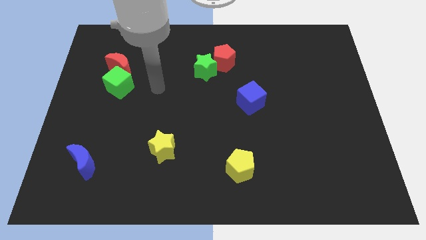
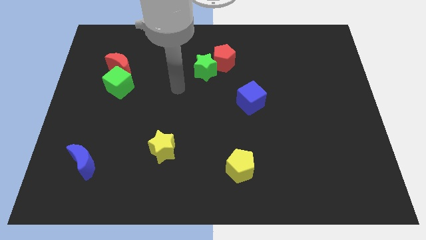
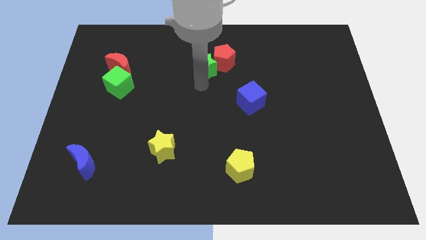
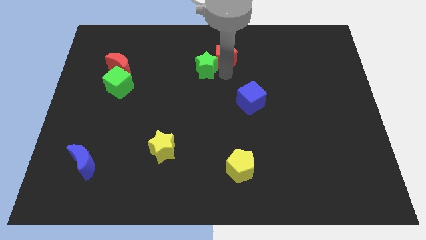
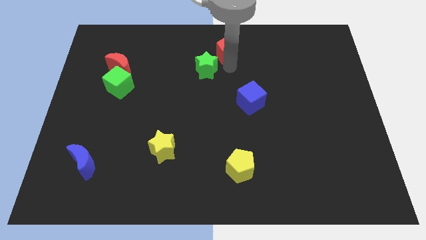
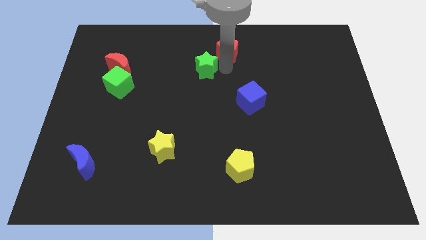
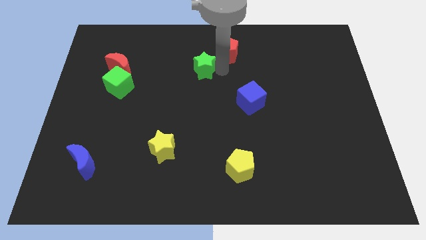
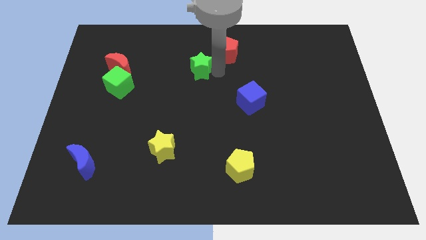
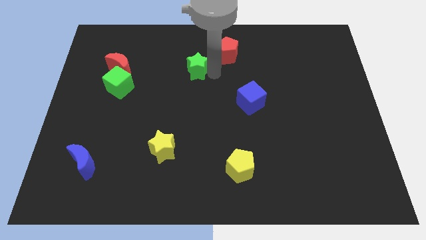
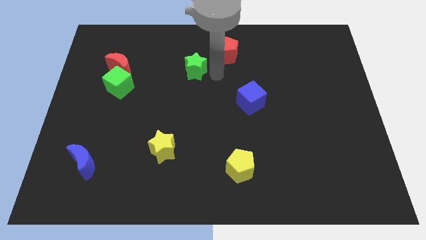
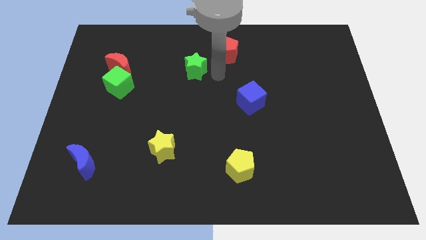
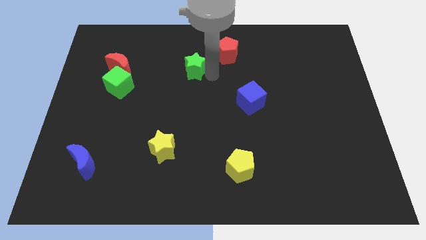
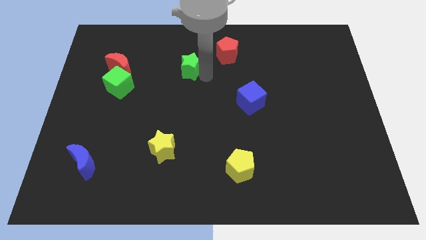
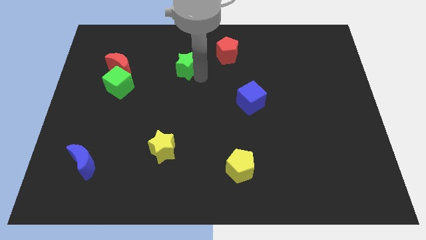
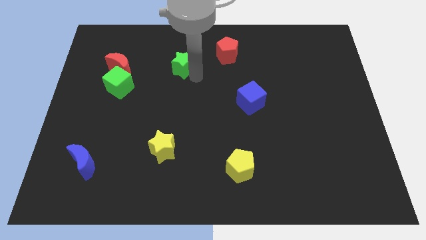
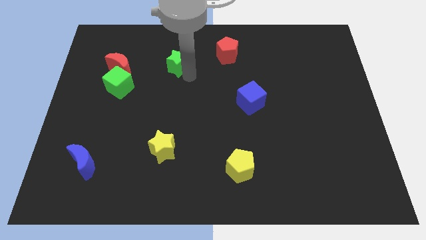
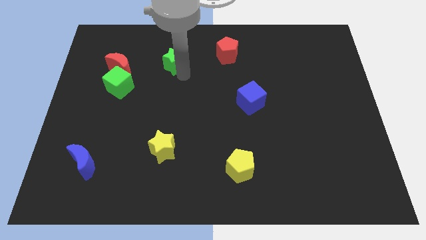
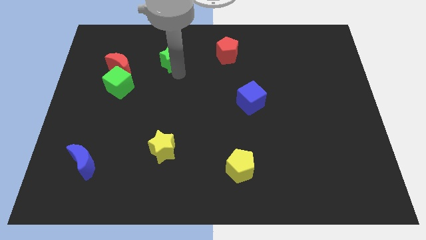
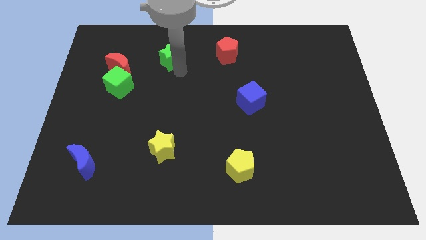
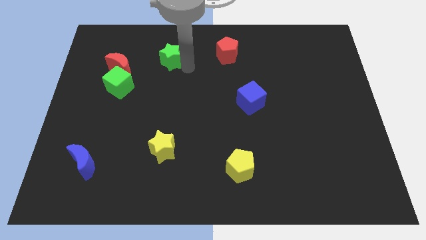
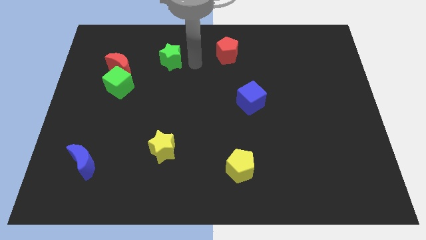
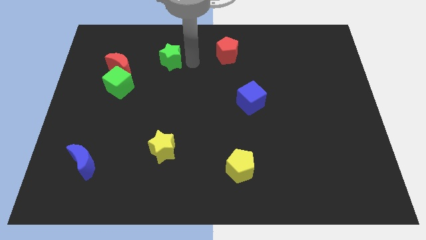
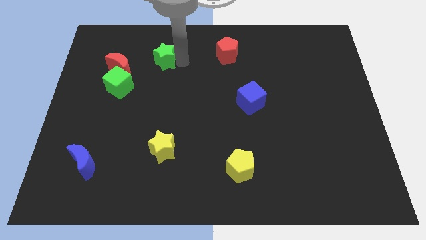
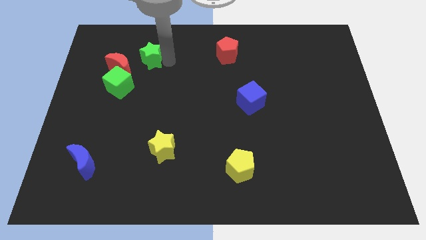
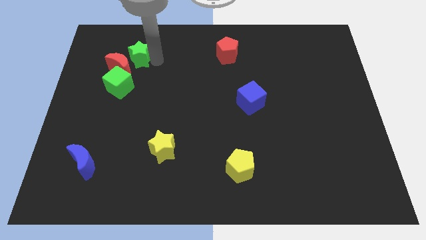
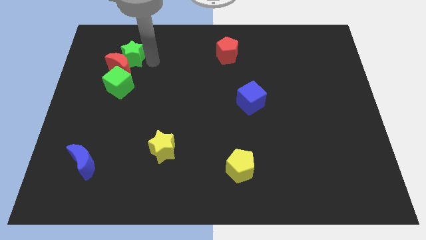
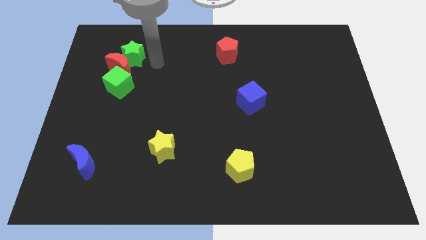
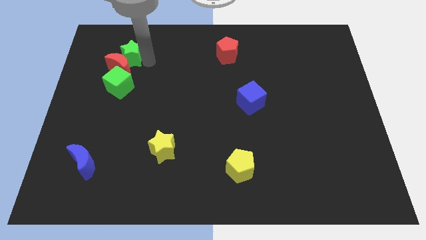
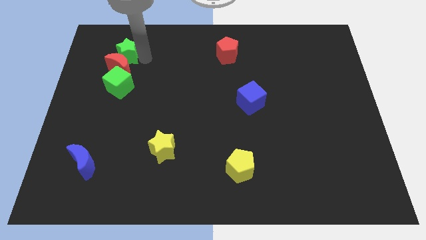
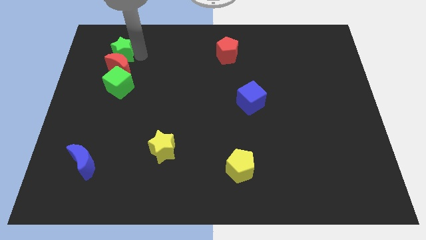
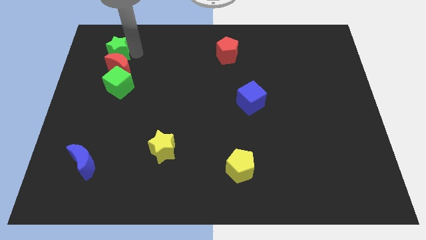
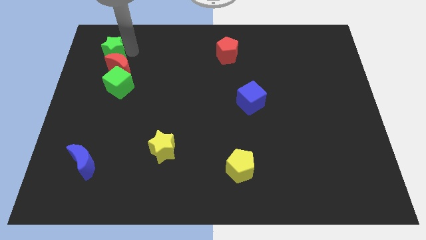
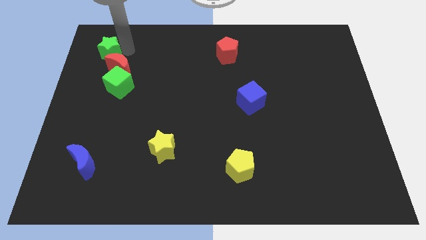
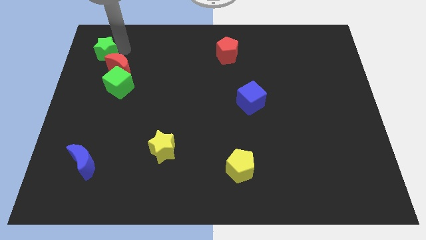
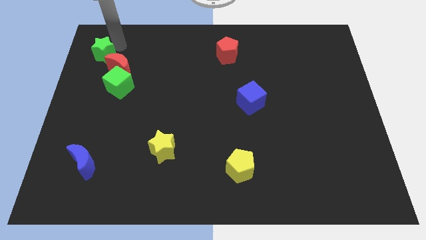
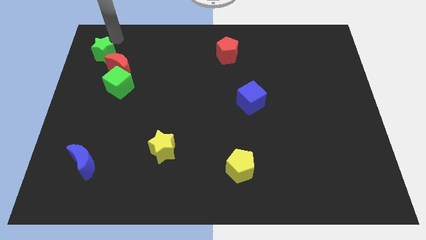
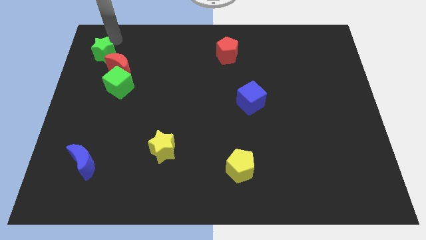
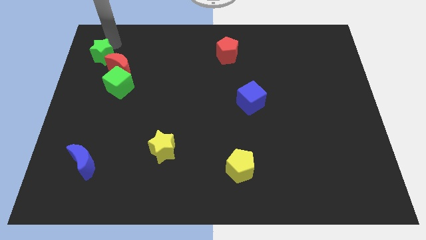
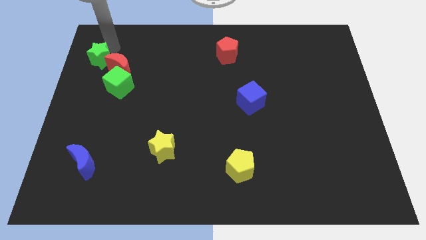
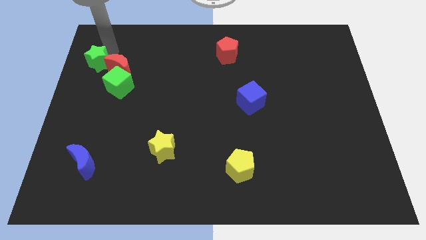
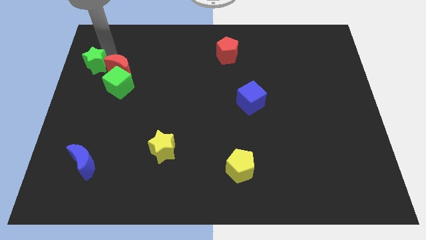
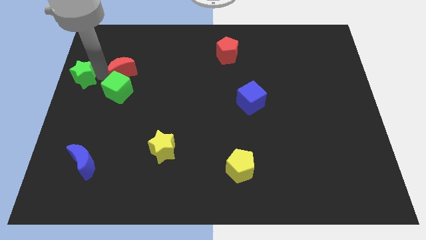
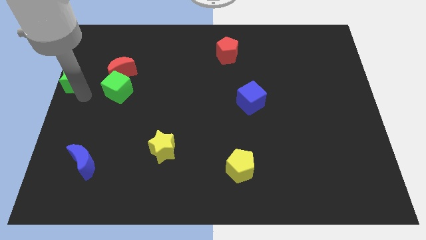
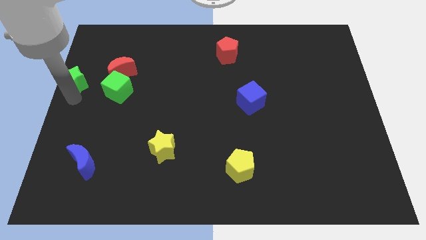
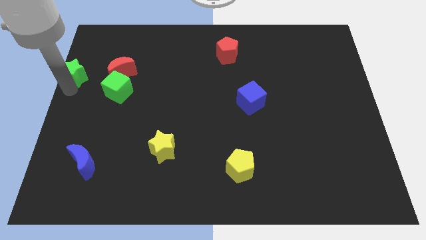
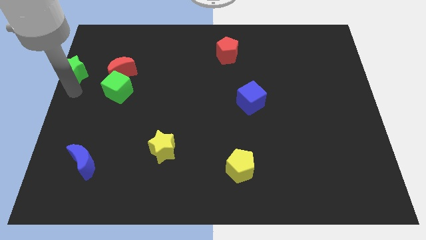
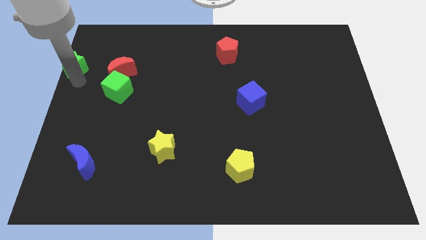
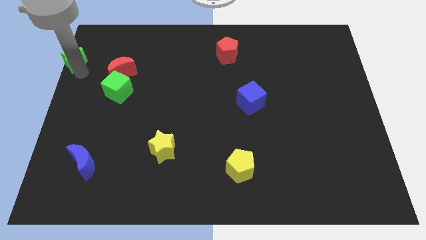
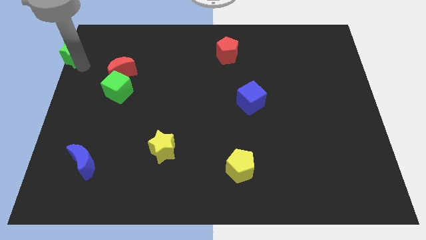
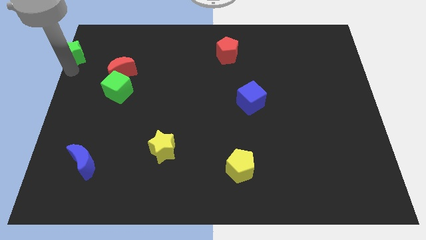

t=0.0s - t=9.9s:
move the green star to the upper left corner

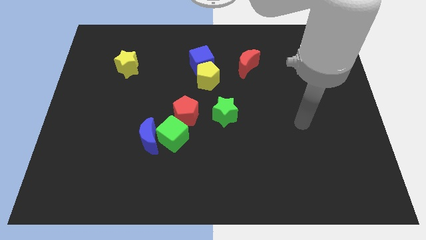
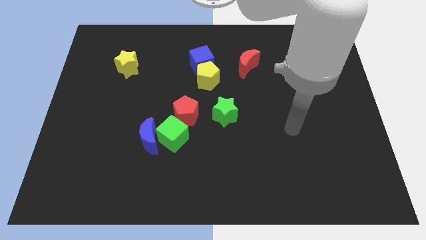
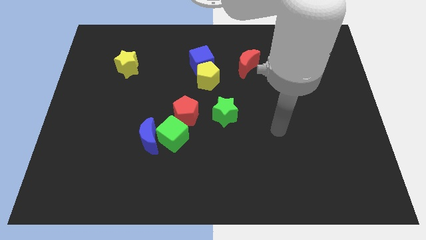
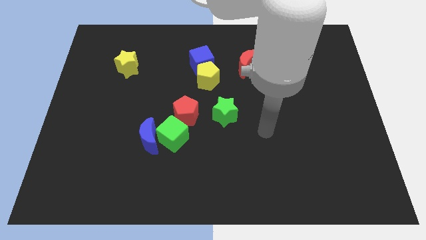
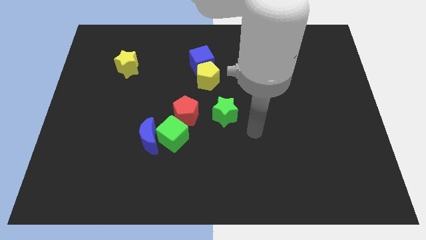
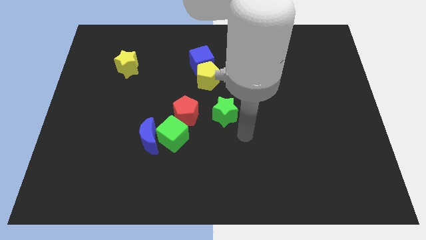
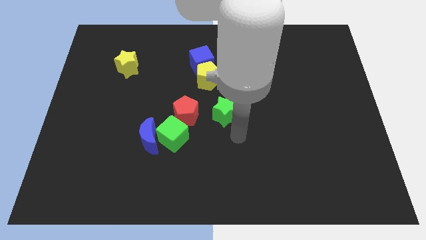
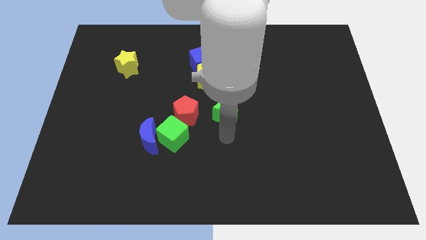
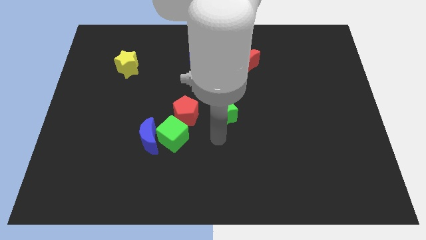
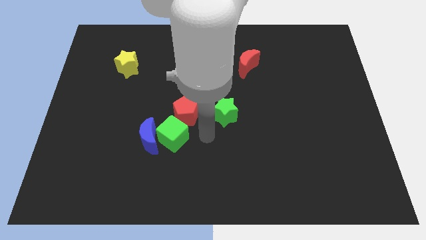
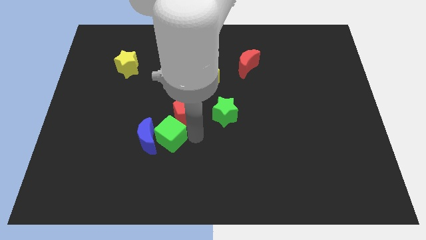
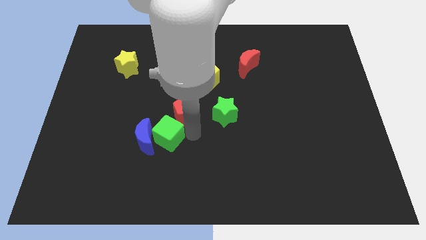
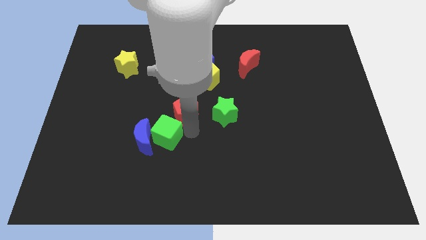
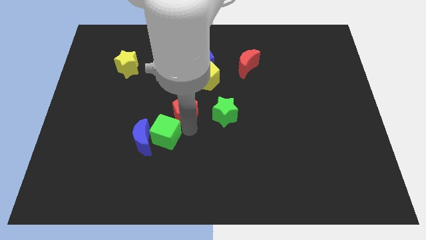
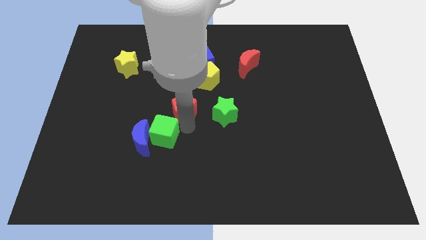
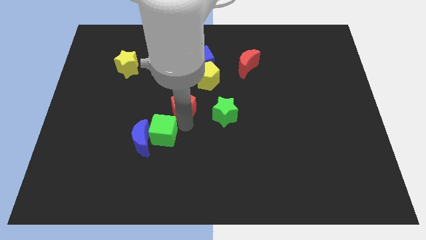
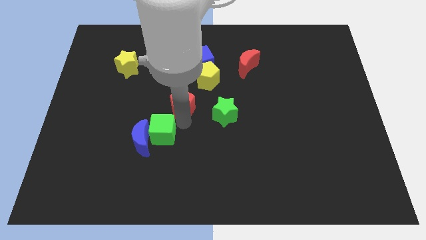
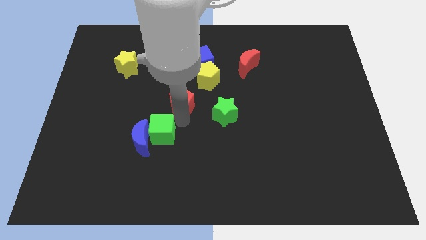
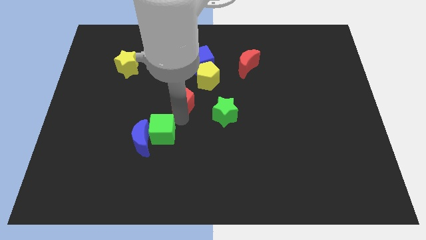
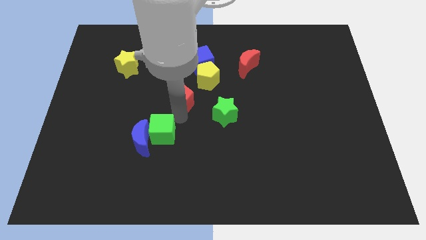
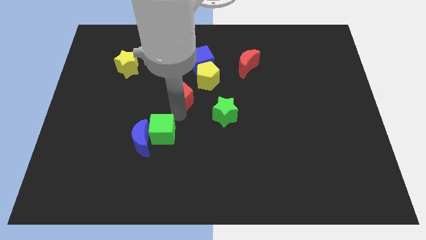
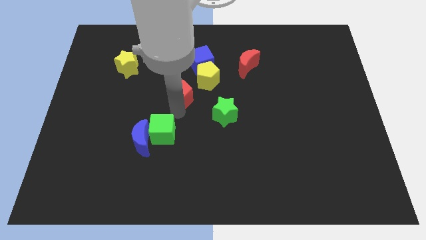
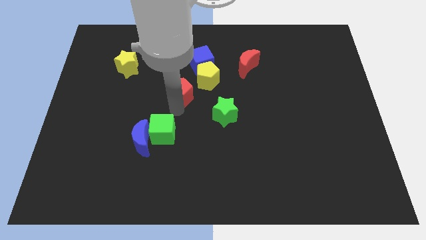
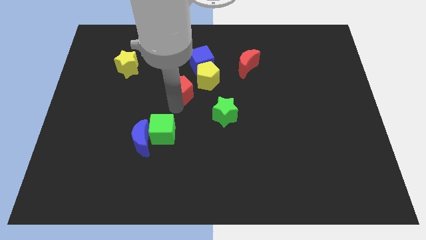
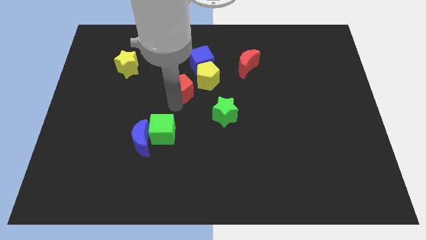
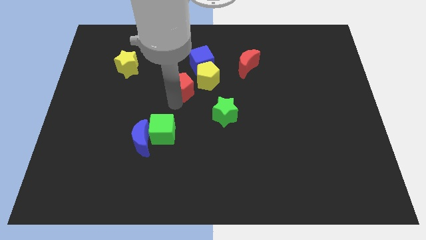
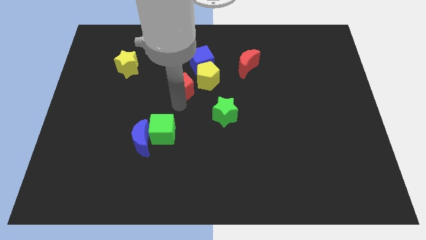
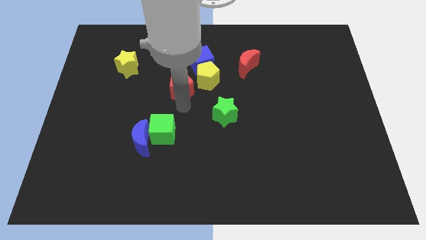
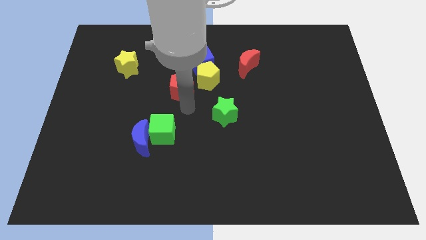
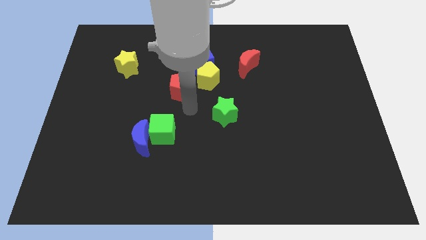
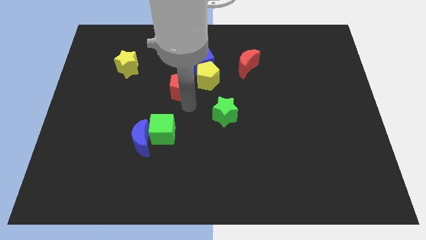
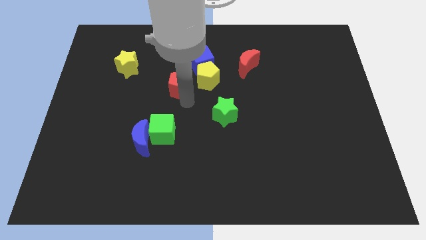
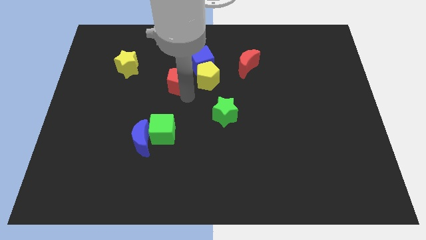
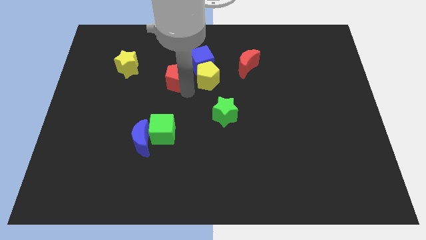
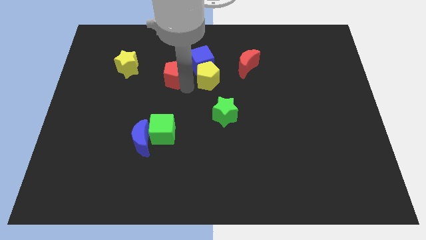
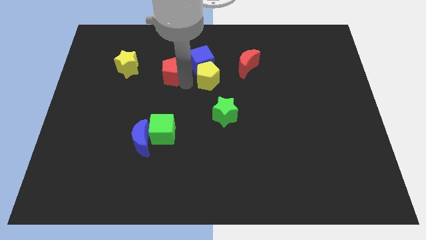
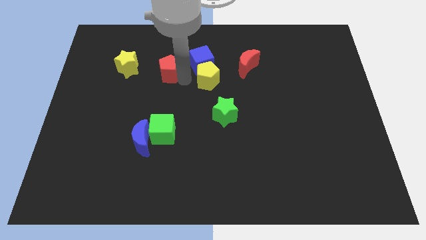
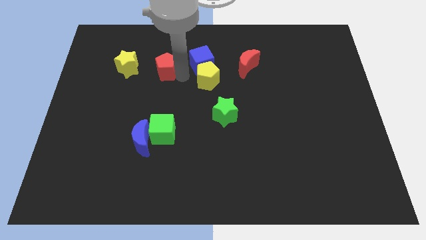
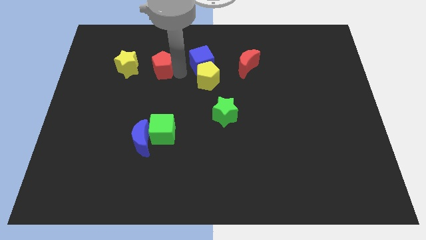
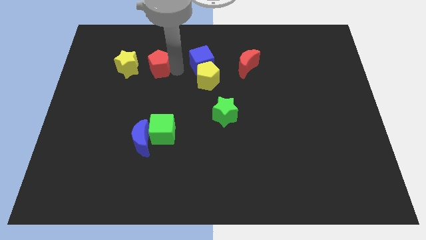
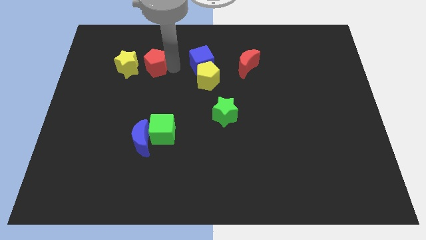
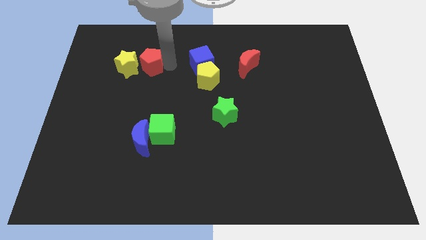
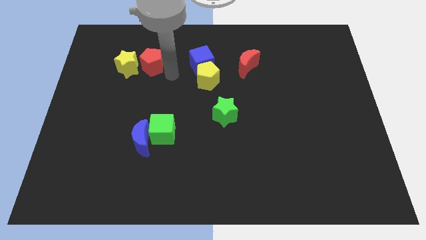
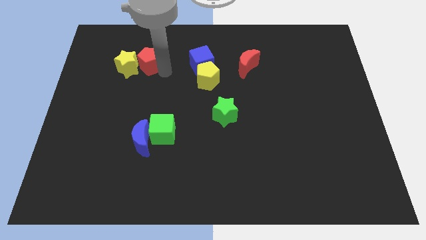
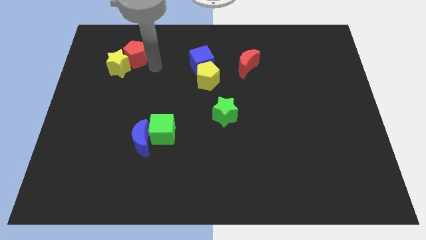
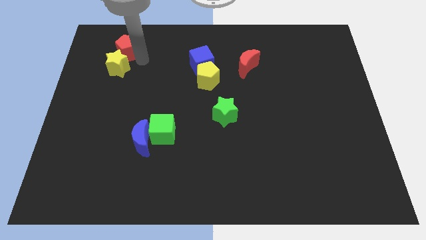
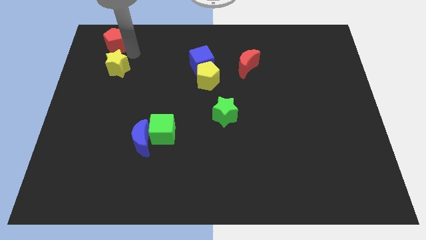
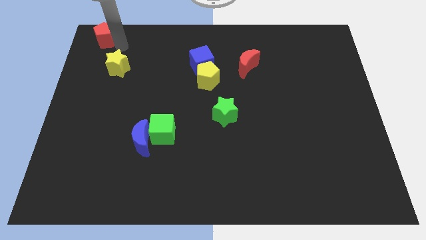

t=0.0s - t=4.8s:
put the red pentagon to the top left corner
